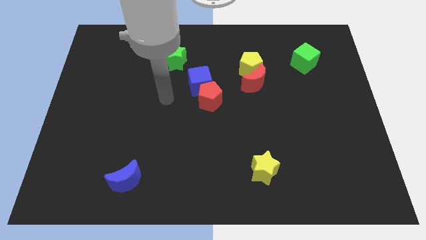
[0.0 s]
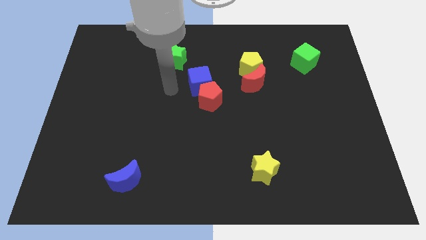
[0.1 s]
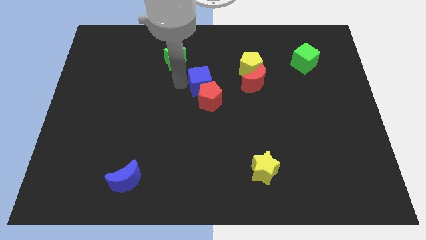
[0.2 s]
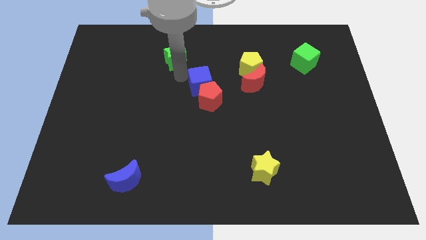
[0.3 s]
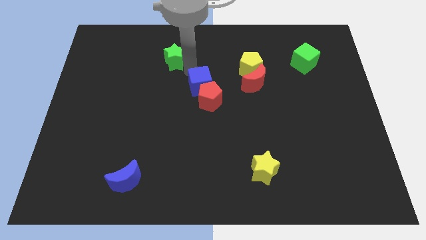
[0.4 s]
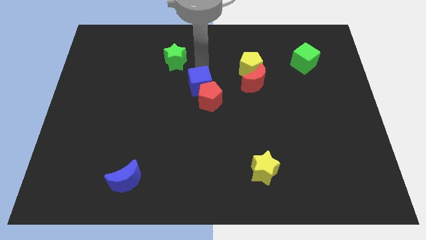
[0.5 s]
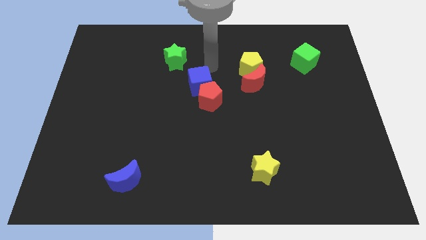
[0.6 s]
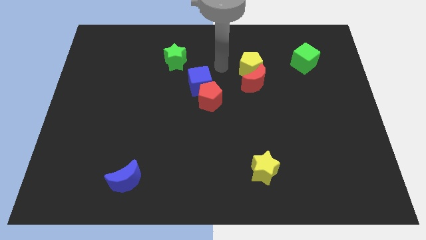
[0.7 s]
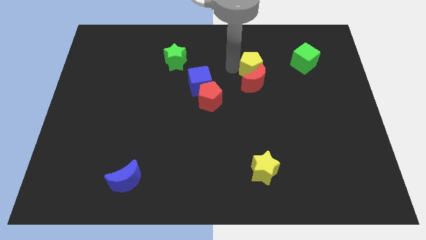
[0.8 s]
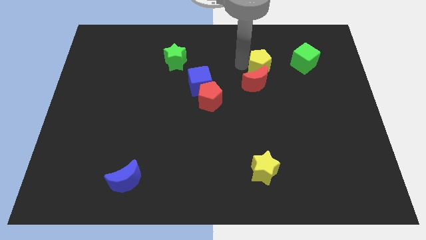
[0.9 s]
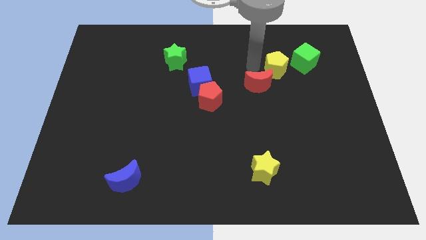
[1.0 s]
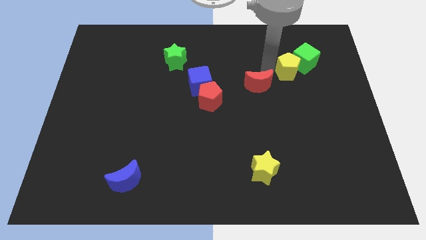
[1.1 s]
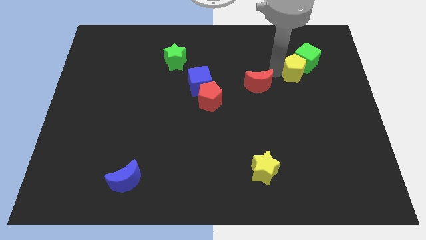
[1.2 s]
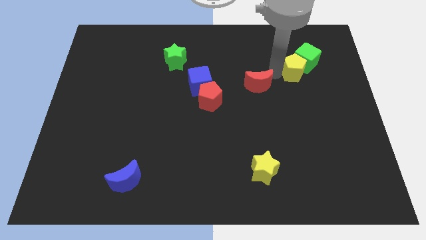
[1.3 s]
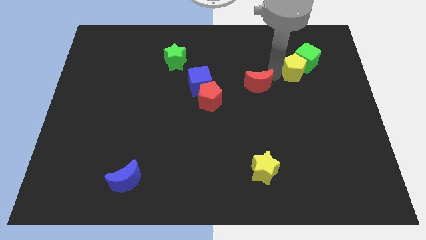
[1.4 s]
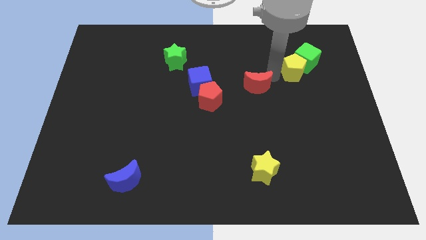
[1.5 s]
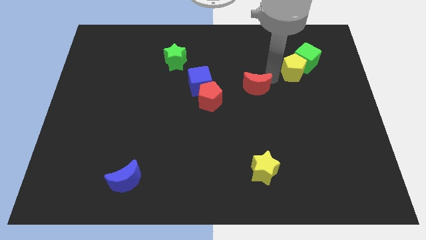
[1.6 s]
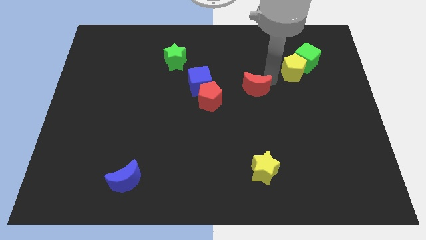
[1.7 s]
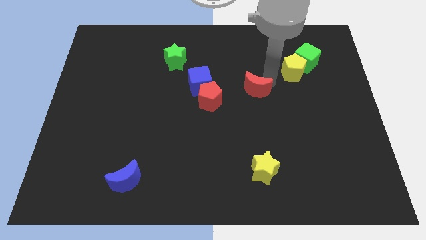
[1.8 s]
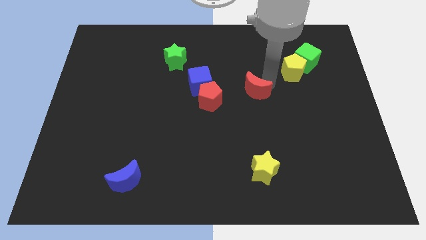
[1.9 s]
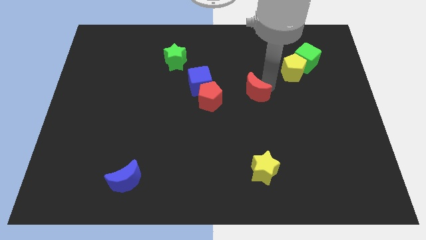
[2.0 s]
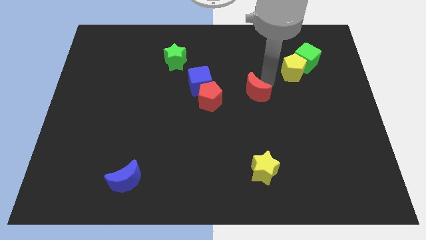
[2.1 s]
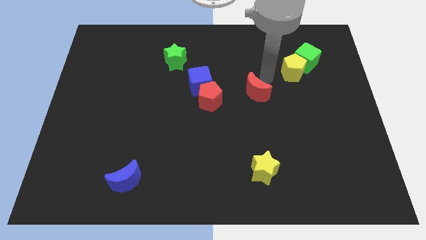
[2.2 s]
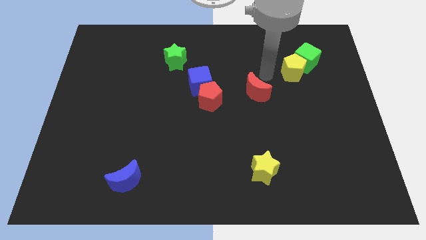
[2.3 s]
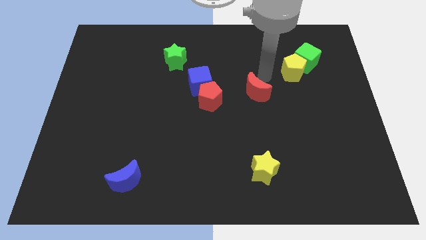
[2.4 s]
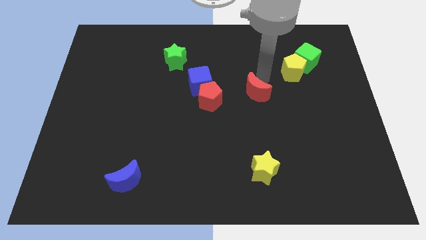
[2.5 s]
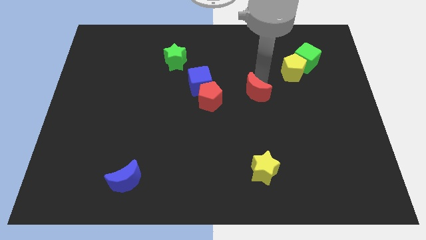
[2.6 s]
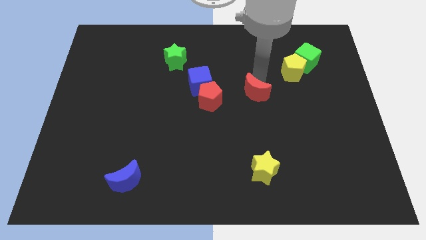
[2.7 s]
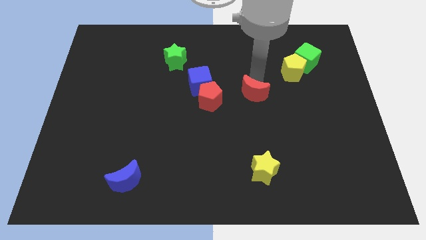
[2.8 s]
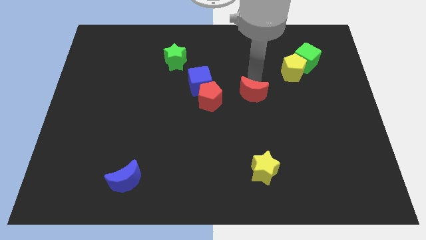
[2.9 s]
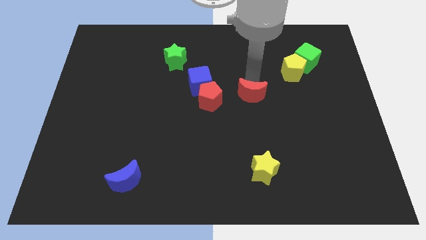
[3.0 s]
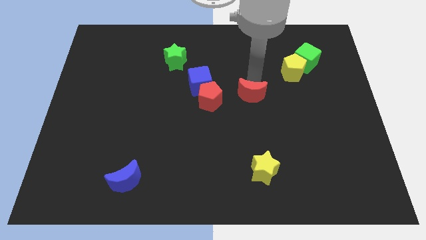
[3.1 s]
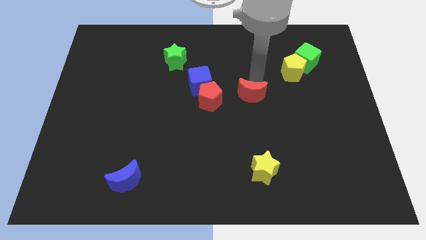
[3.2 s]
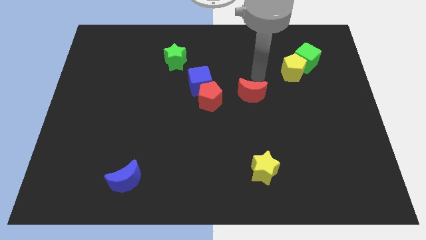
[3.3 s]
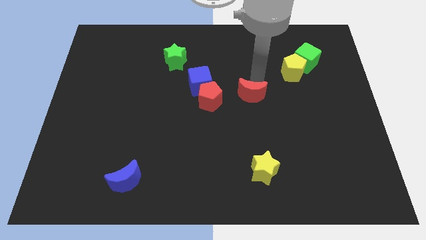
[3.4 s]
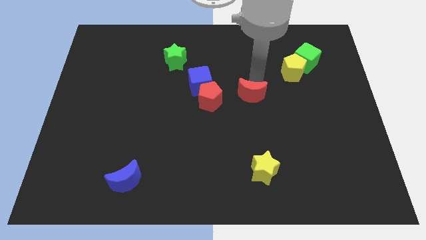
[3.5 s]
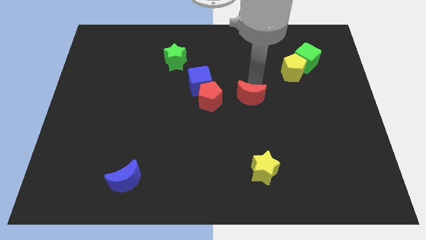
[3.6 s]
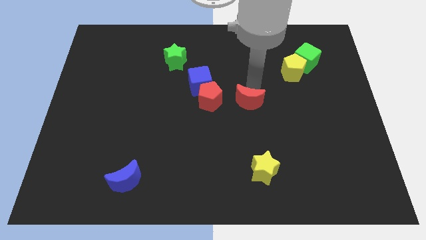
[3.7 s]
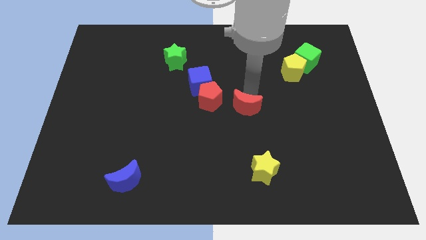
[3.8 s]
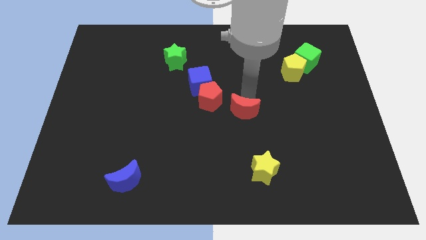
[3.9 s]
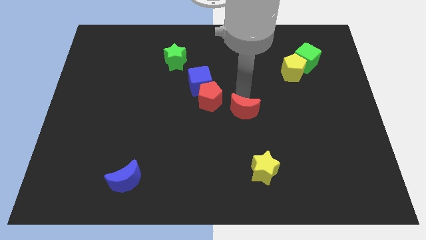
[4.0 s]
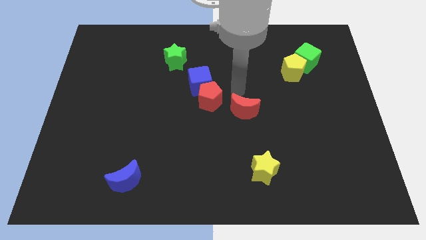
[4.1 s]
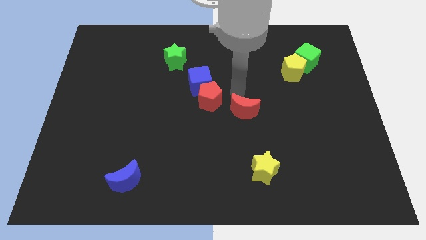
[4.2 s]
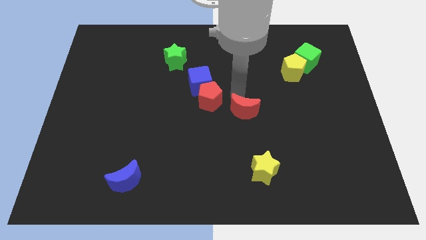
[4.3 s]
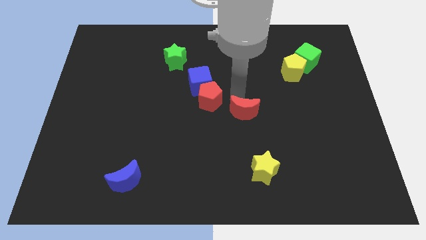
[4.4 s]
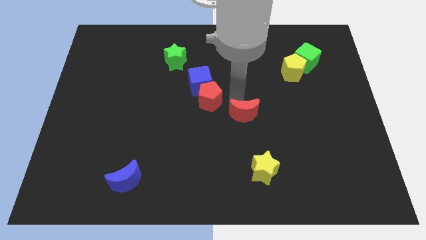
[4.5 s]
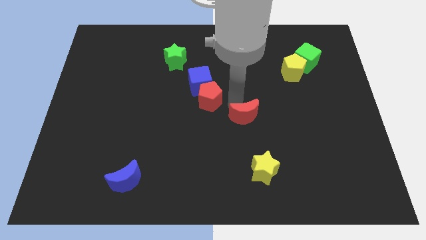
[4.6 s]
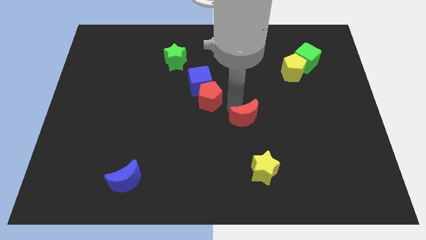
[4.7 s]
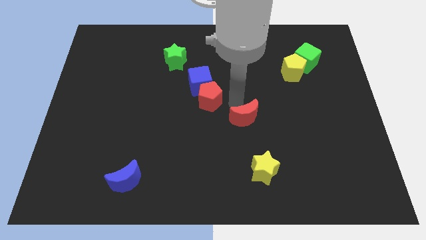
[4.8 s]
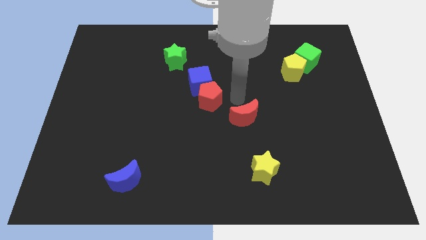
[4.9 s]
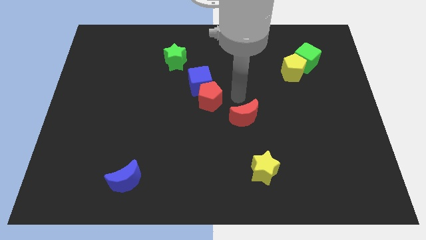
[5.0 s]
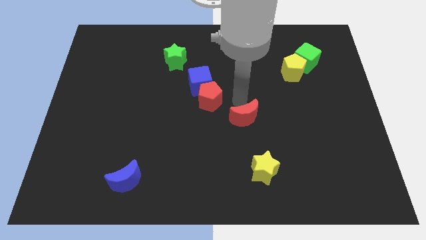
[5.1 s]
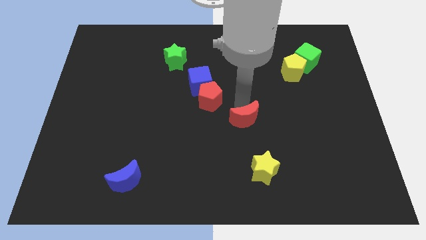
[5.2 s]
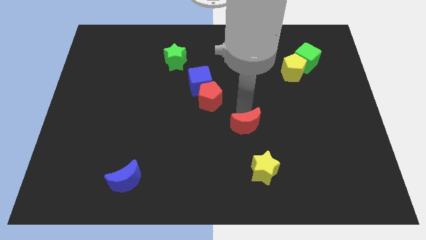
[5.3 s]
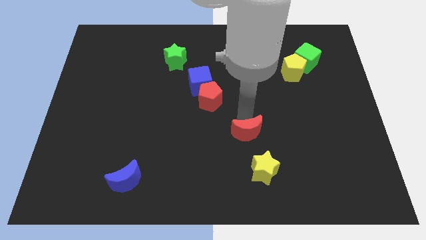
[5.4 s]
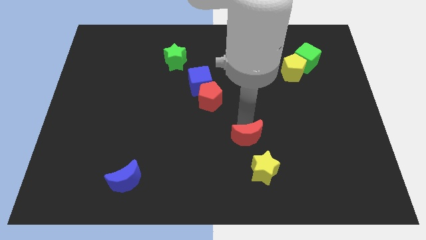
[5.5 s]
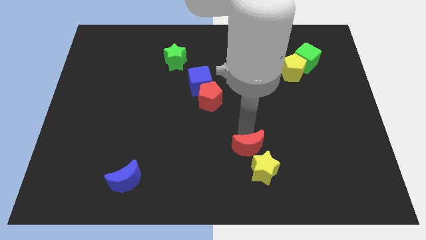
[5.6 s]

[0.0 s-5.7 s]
move the red moon towards the yellow star

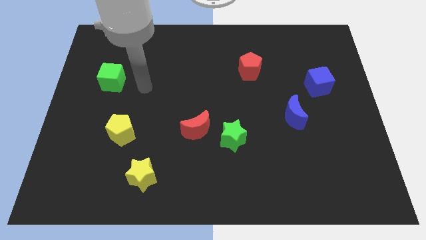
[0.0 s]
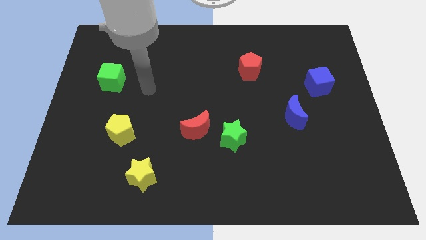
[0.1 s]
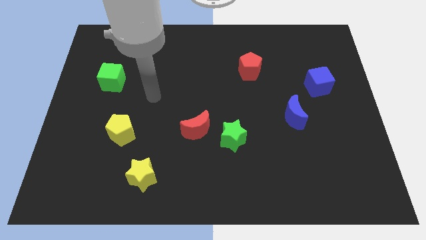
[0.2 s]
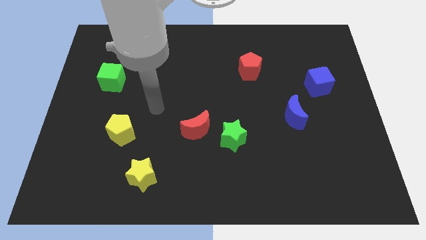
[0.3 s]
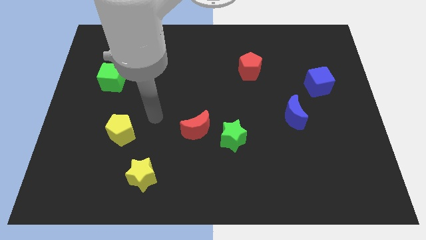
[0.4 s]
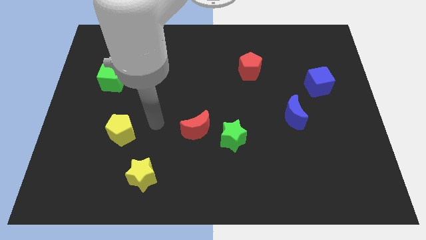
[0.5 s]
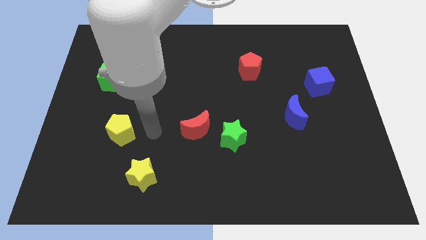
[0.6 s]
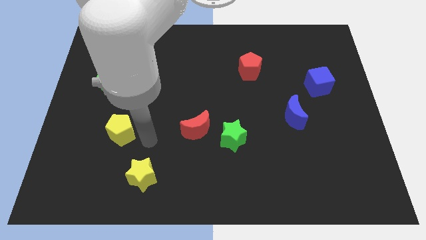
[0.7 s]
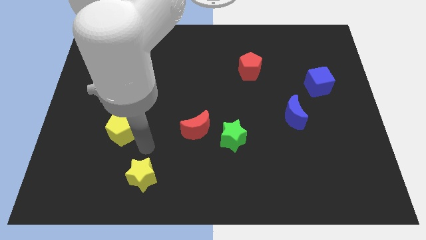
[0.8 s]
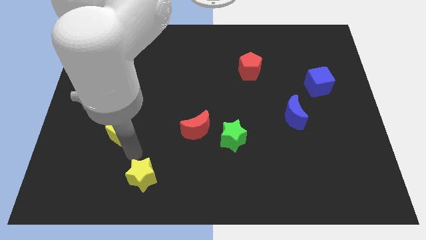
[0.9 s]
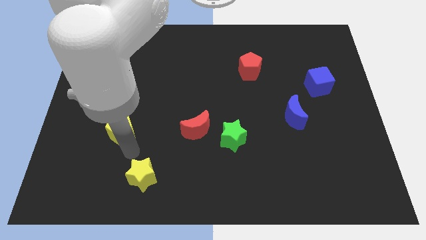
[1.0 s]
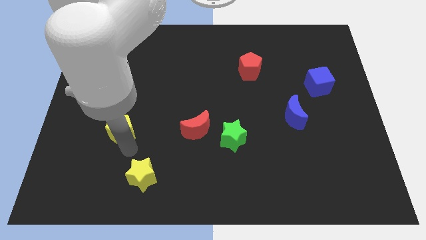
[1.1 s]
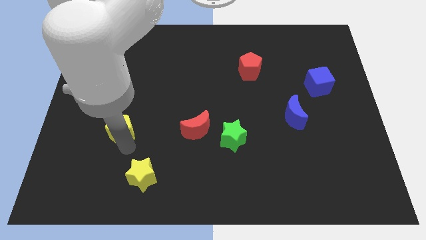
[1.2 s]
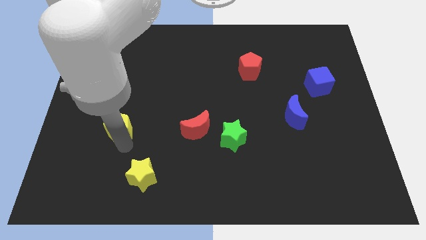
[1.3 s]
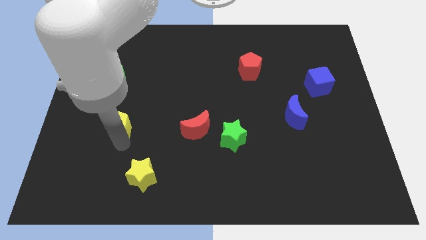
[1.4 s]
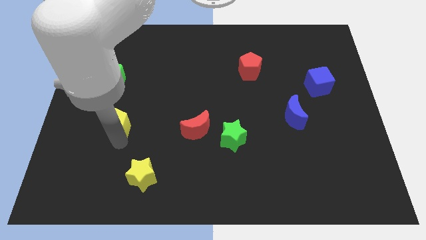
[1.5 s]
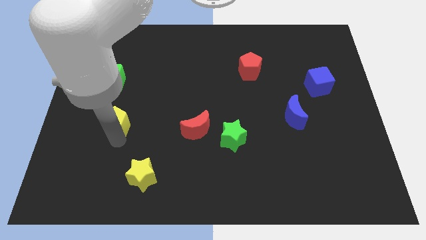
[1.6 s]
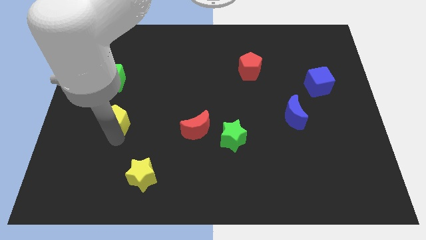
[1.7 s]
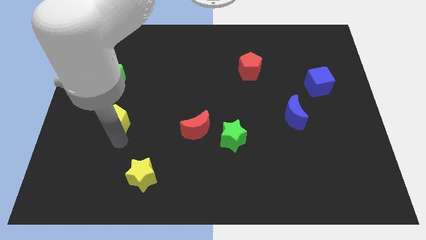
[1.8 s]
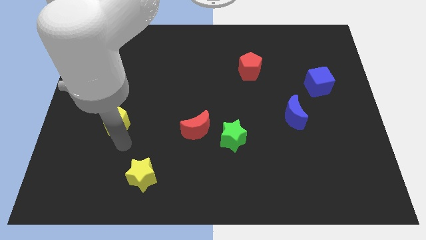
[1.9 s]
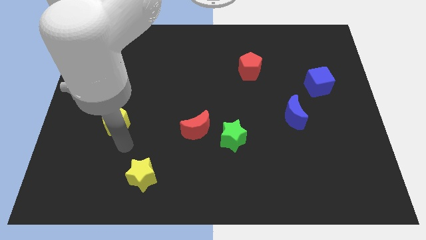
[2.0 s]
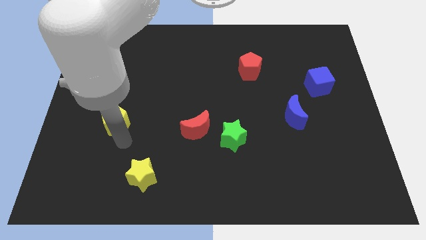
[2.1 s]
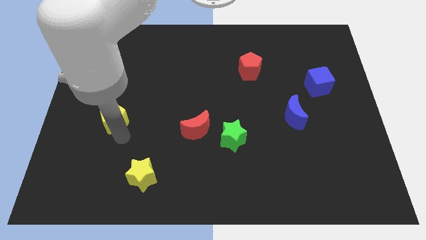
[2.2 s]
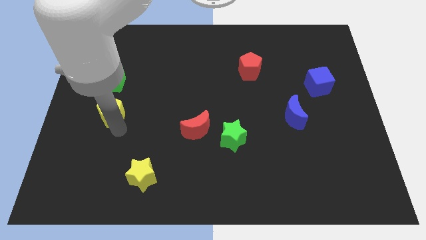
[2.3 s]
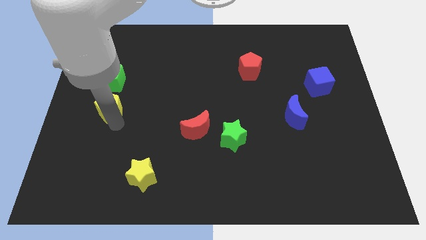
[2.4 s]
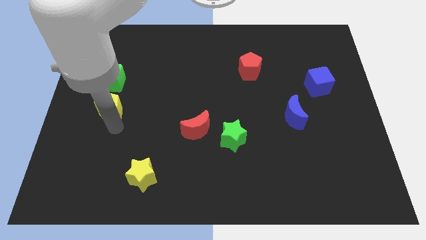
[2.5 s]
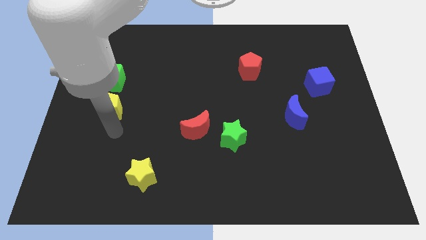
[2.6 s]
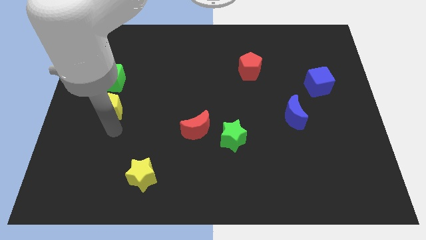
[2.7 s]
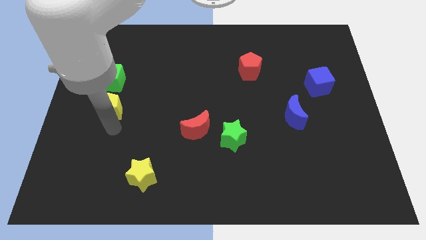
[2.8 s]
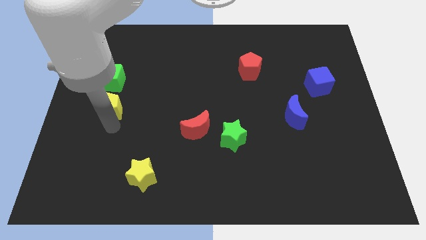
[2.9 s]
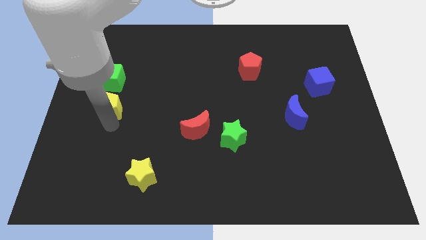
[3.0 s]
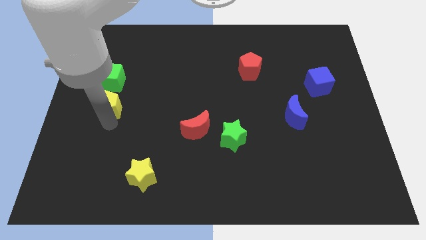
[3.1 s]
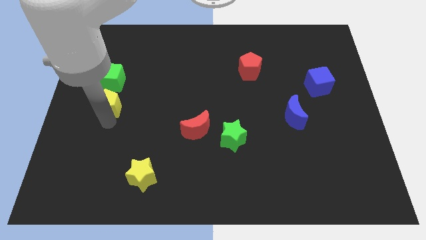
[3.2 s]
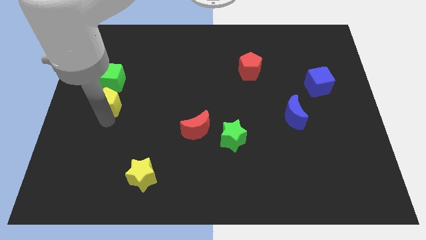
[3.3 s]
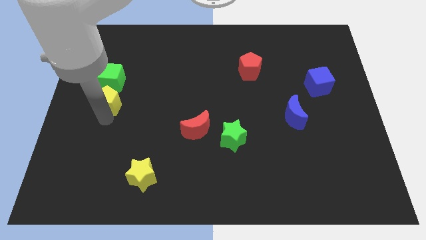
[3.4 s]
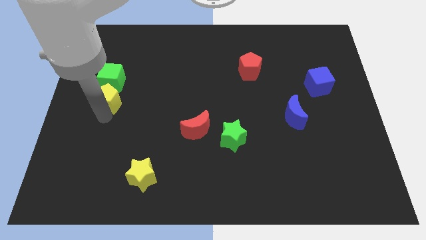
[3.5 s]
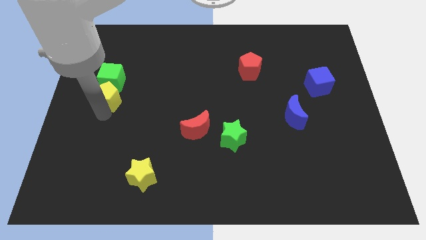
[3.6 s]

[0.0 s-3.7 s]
put the yellow pentagon next to the green cube
